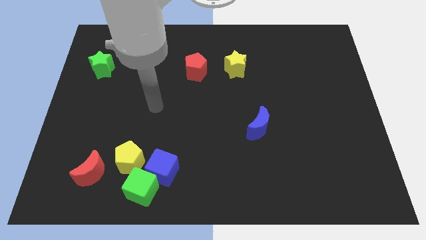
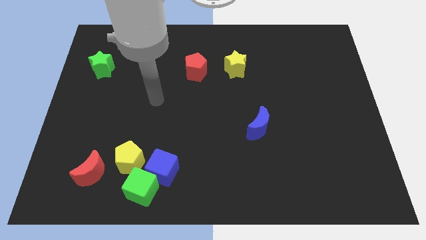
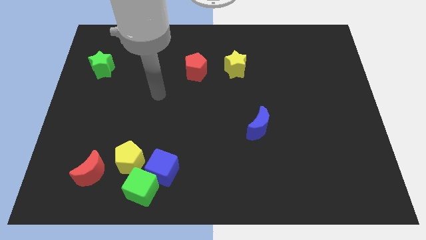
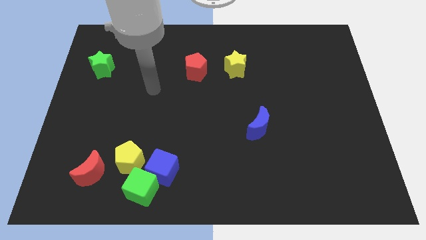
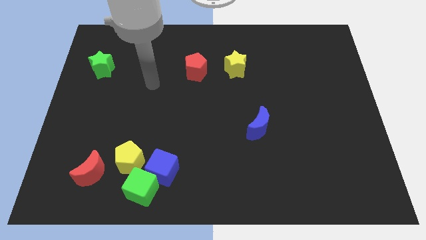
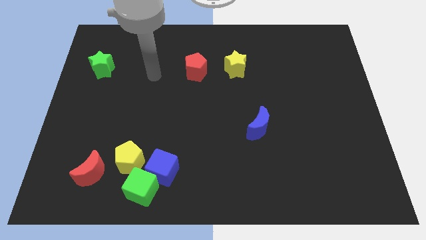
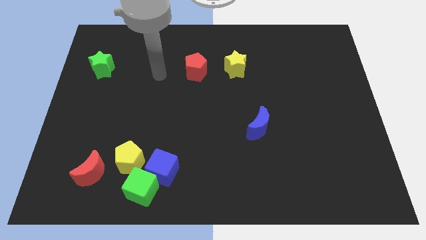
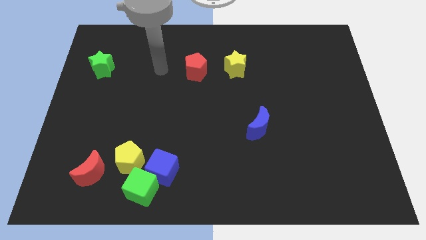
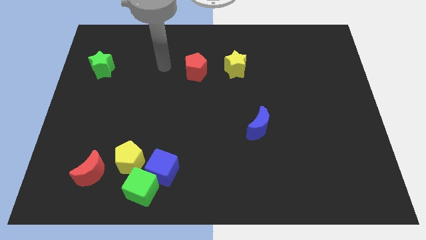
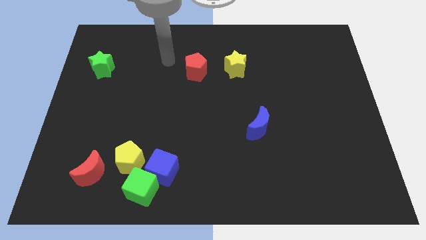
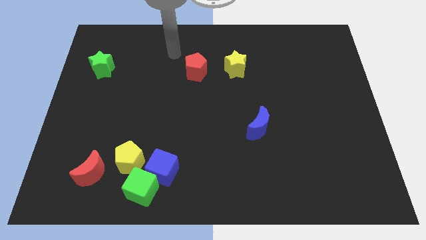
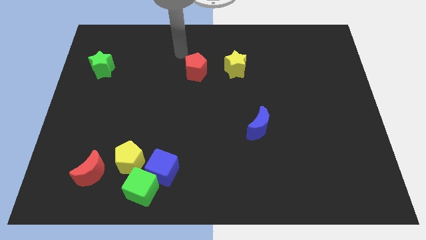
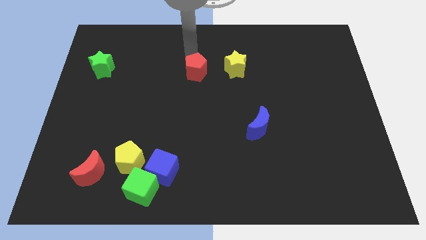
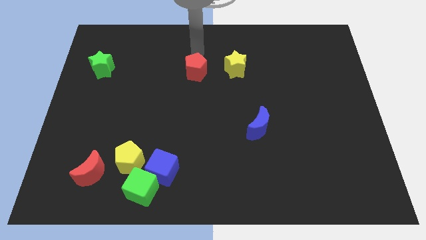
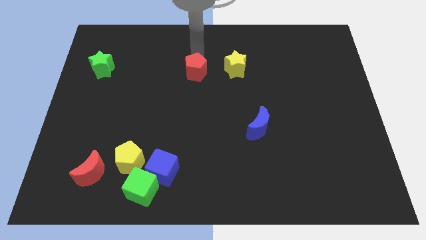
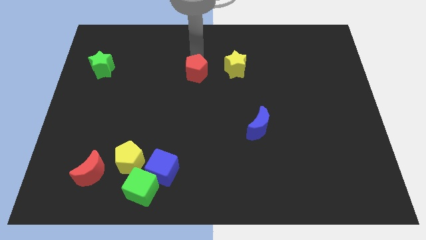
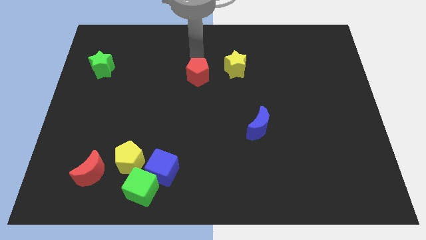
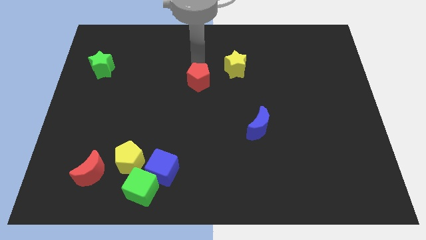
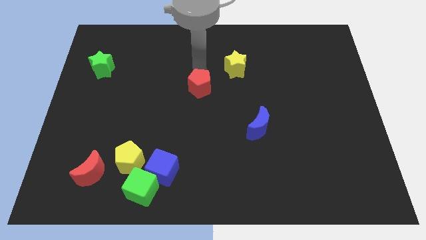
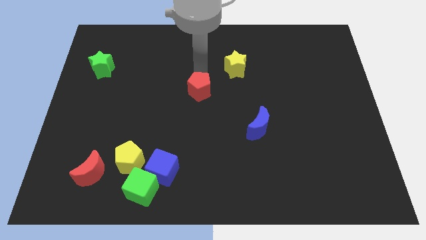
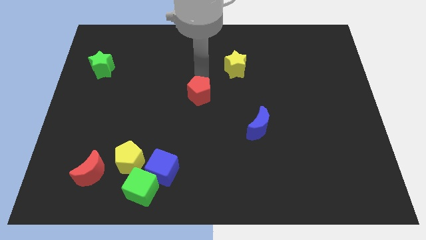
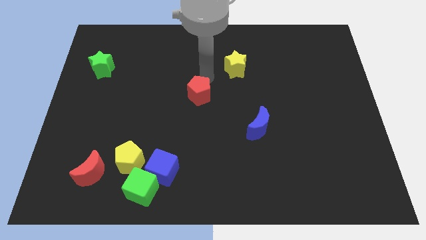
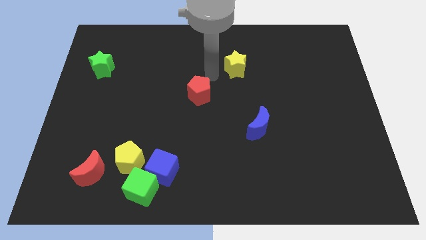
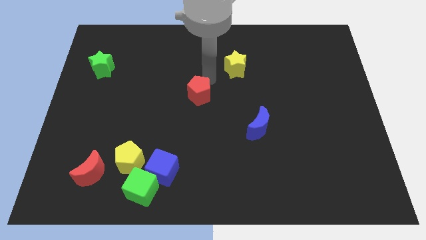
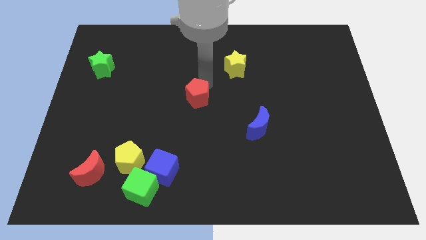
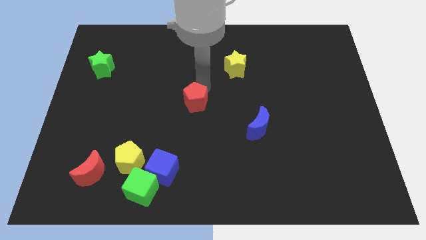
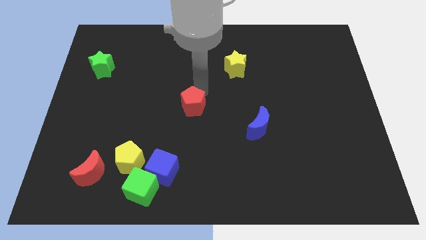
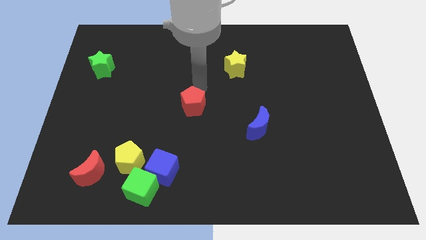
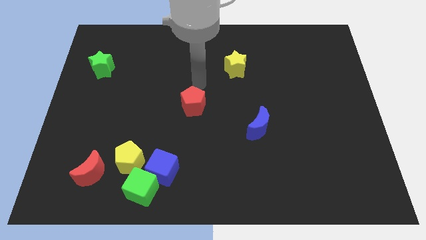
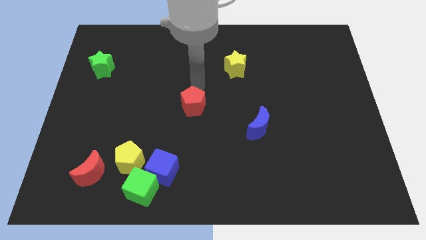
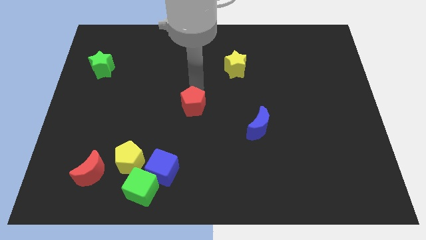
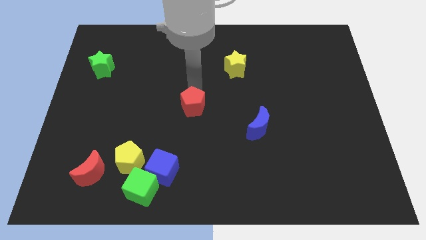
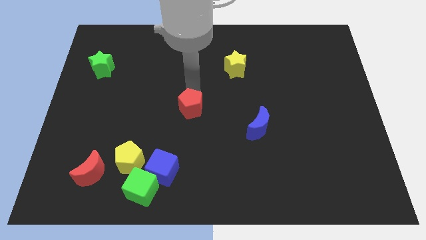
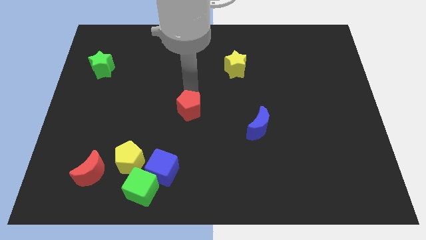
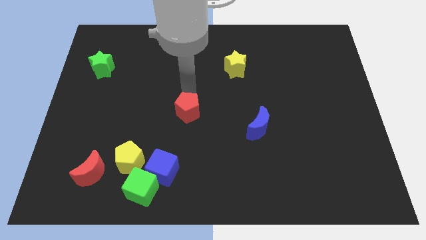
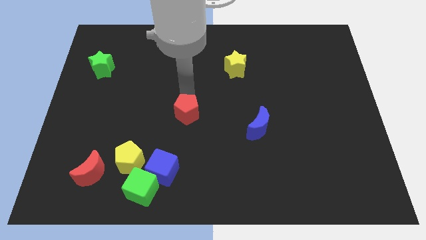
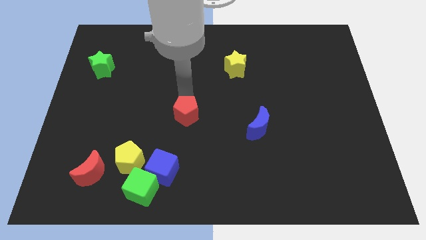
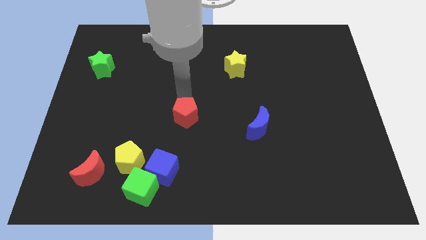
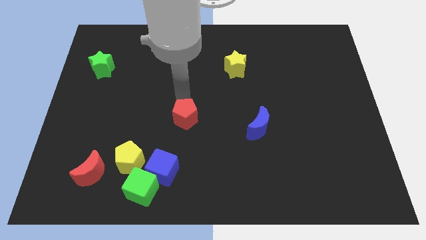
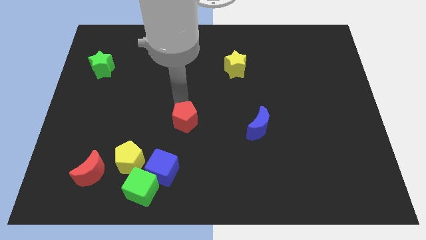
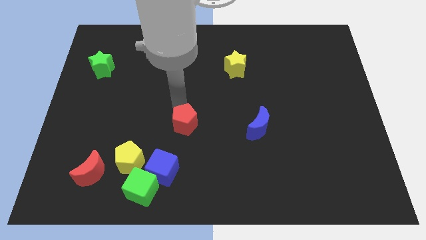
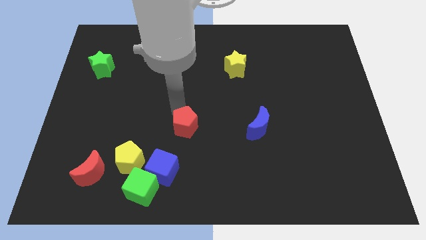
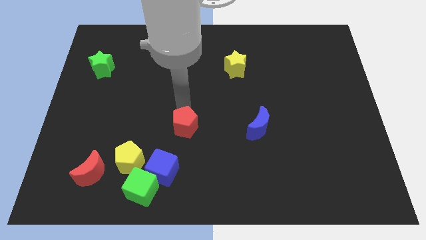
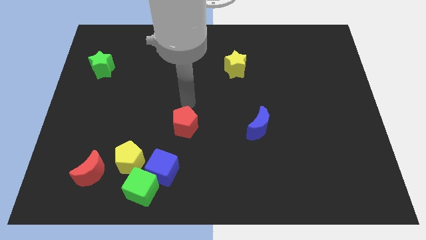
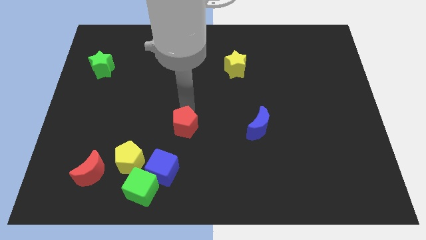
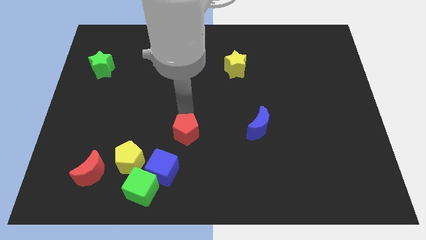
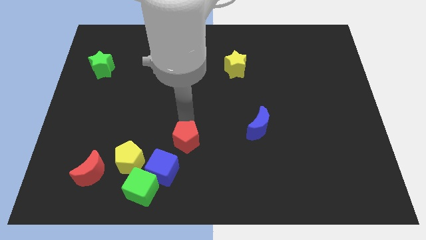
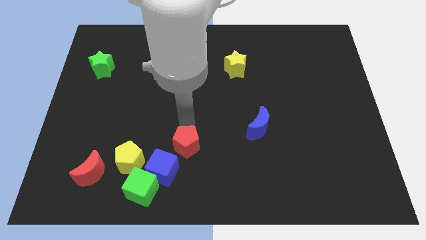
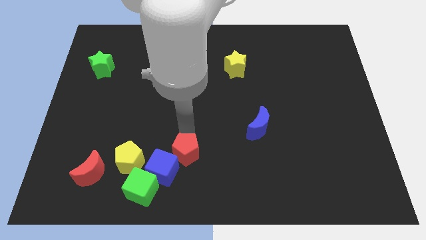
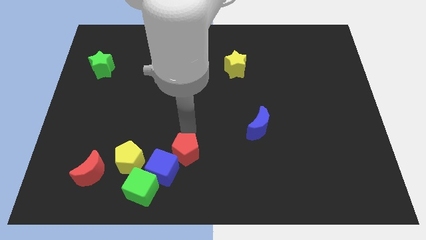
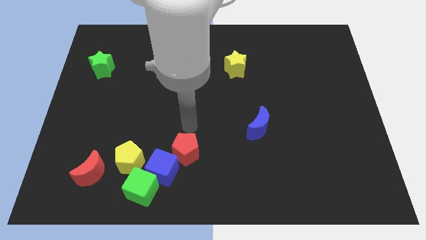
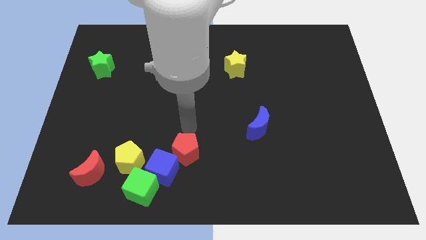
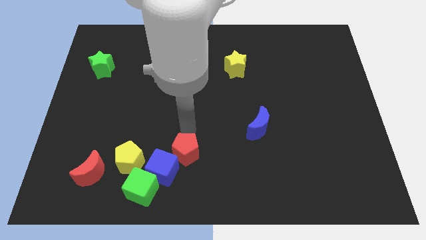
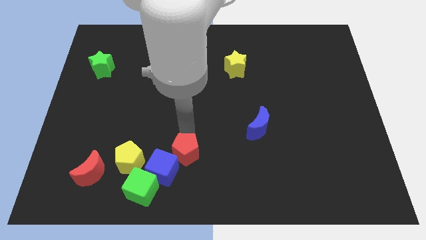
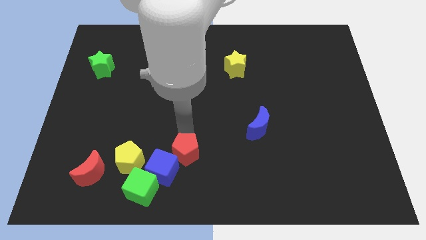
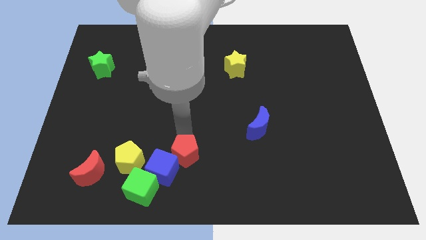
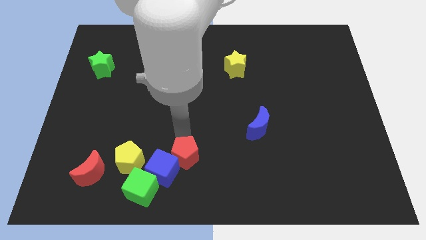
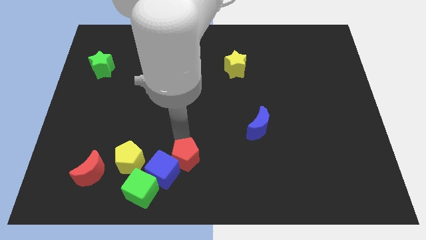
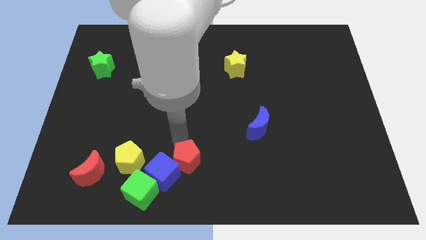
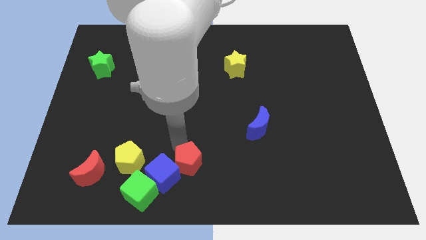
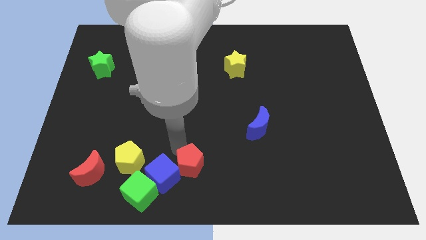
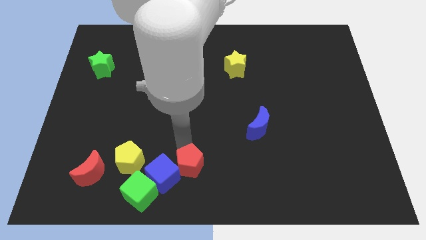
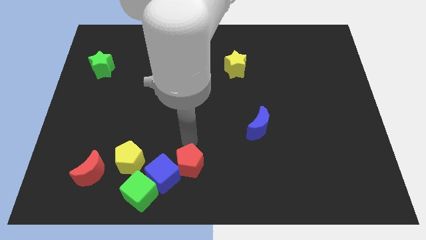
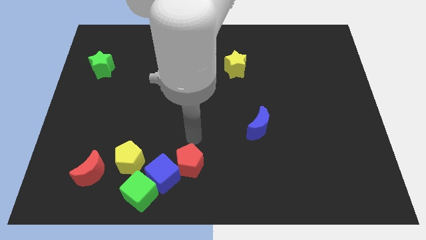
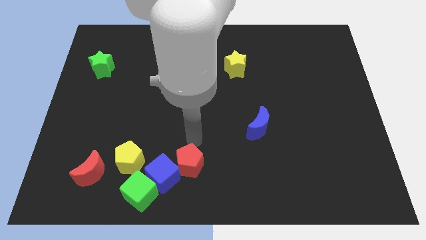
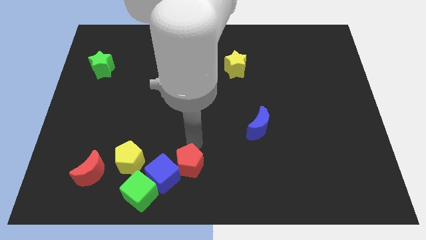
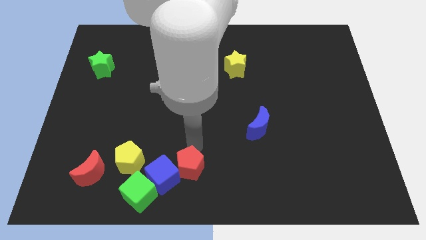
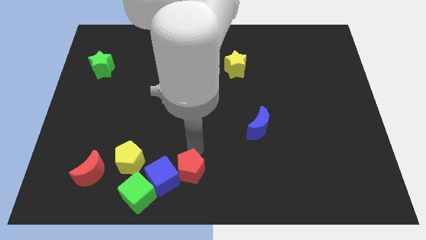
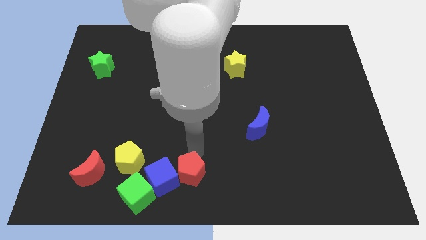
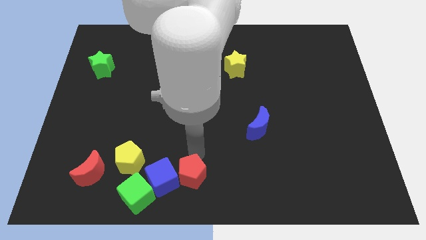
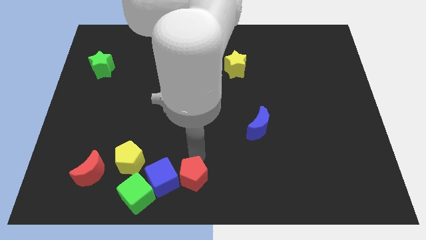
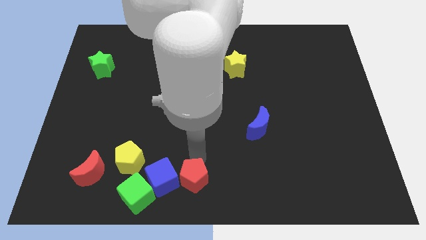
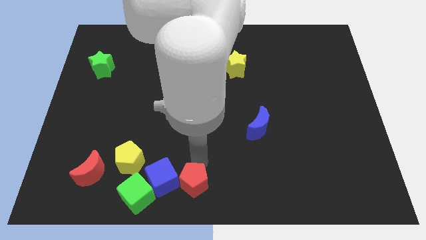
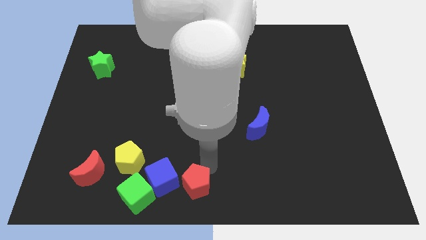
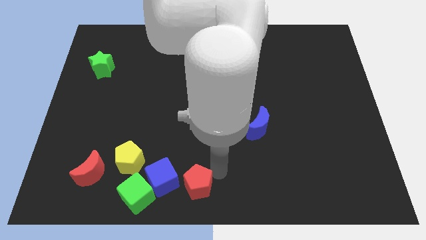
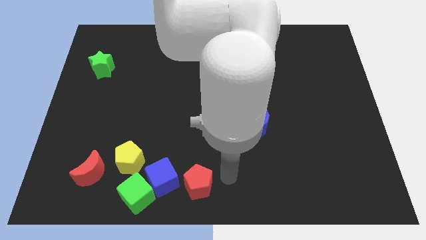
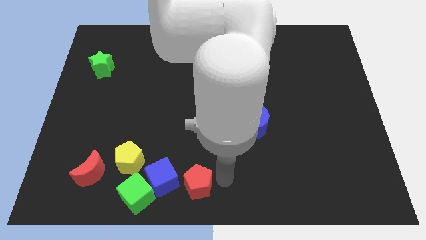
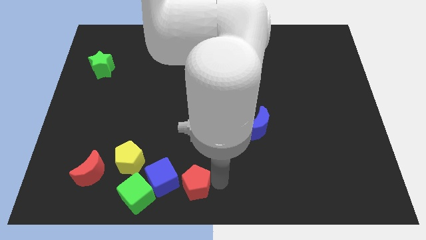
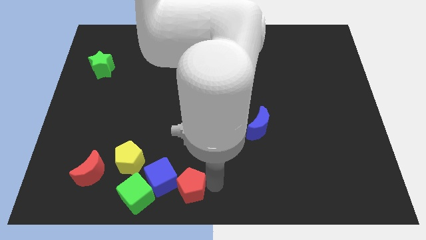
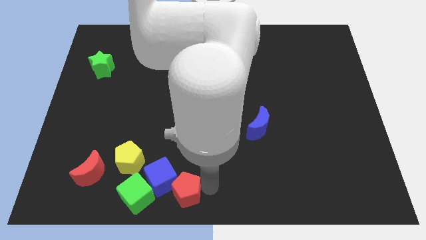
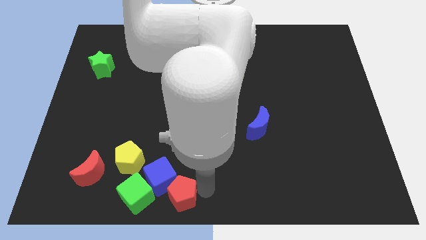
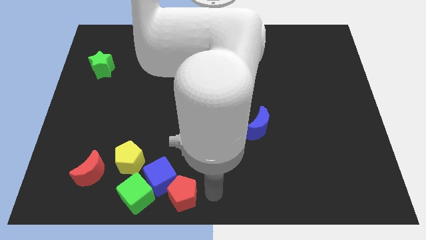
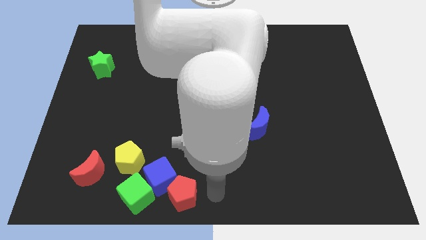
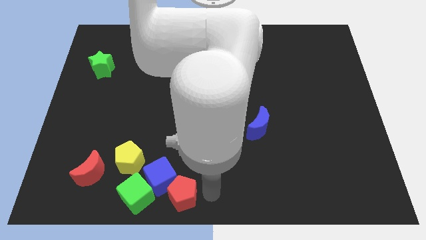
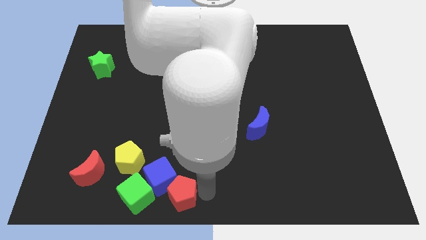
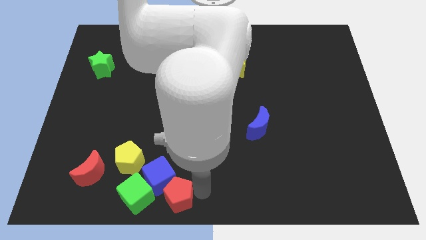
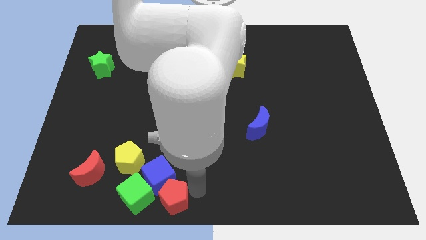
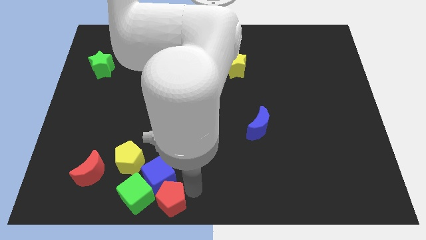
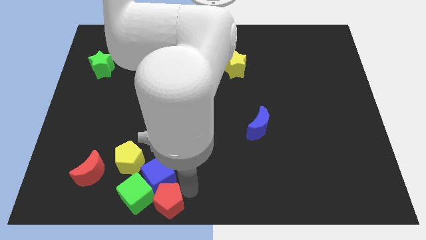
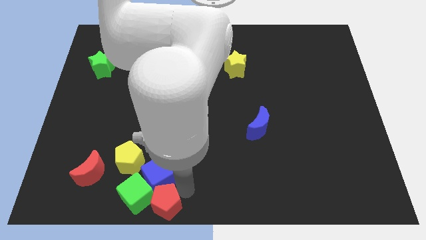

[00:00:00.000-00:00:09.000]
move the red pentagon towards the green cube
